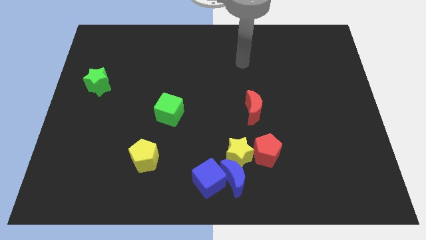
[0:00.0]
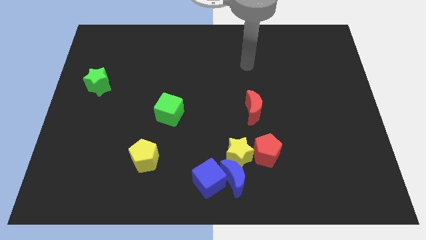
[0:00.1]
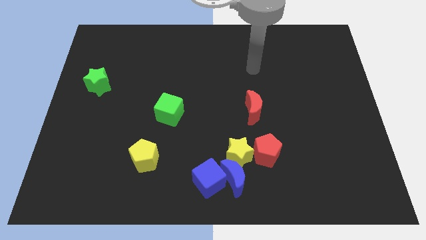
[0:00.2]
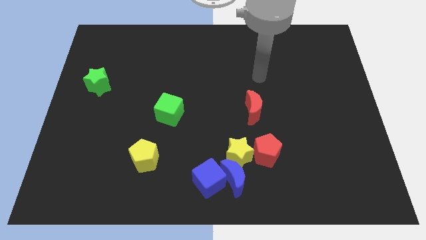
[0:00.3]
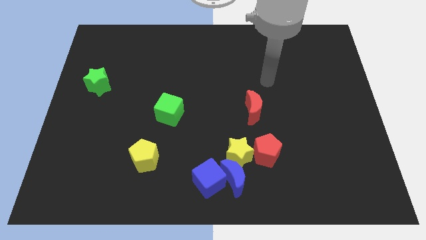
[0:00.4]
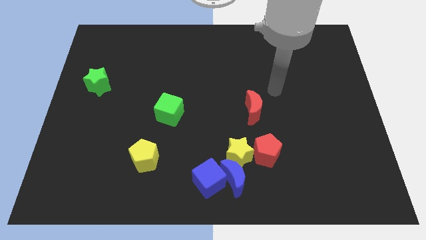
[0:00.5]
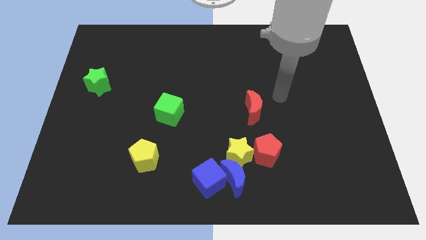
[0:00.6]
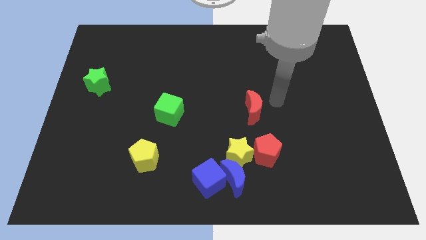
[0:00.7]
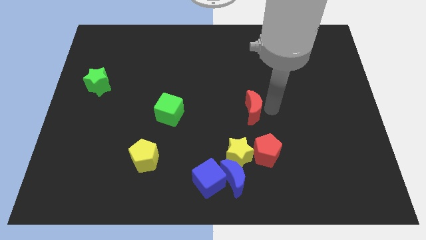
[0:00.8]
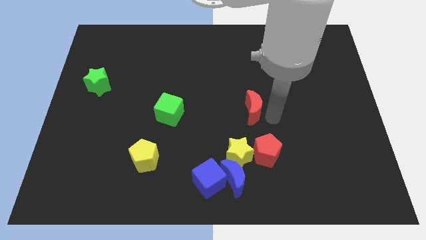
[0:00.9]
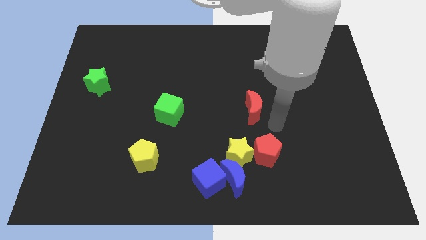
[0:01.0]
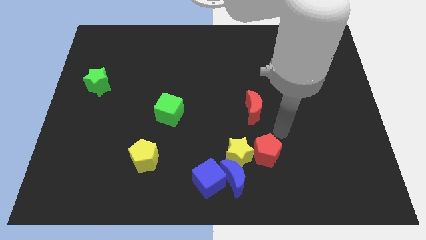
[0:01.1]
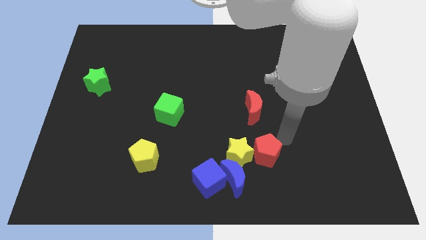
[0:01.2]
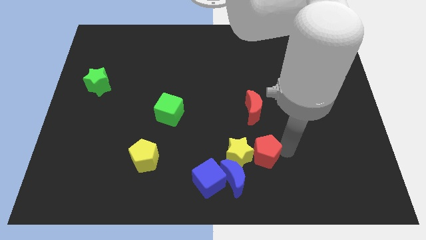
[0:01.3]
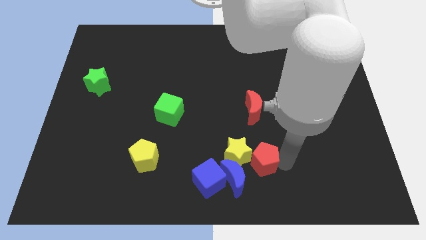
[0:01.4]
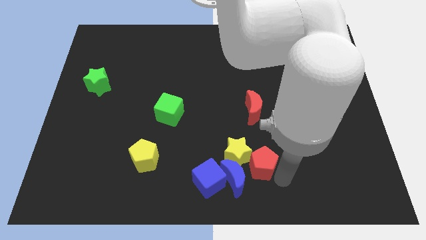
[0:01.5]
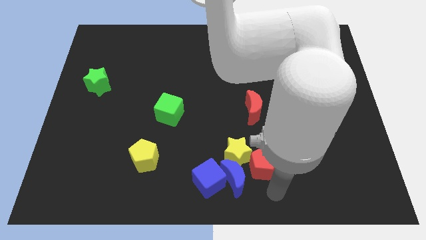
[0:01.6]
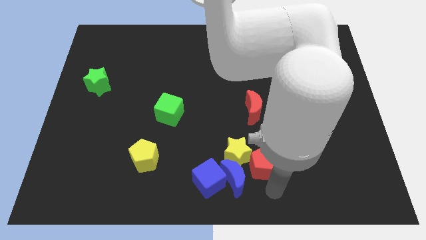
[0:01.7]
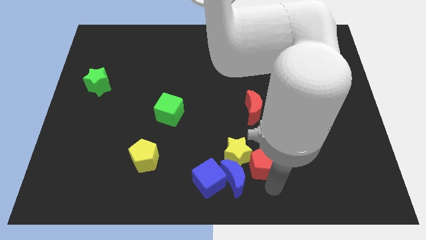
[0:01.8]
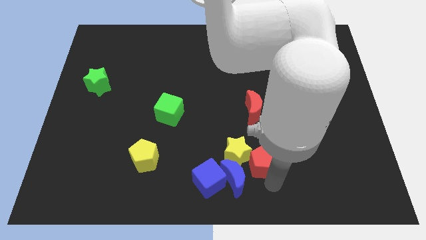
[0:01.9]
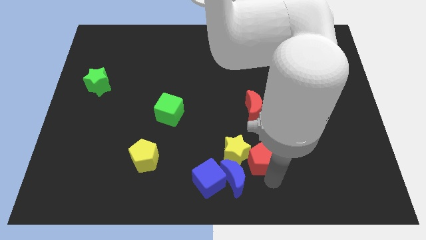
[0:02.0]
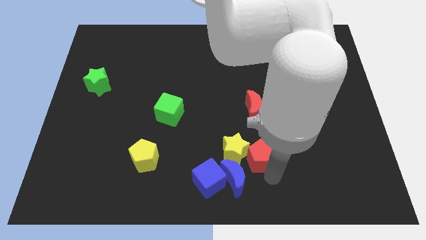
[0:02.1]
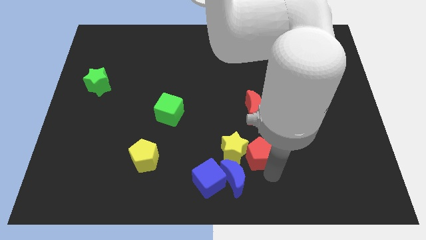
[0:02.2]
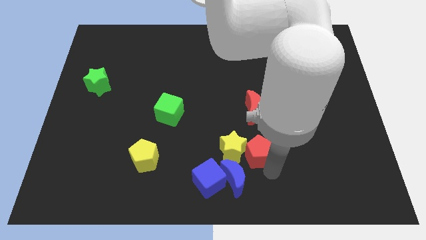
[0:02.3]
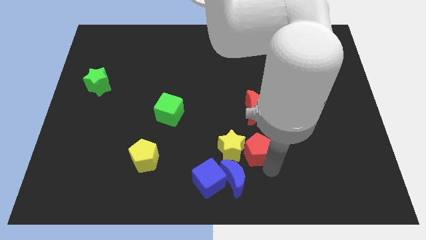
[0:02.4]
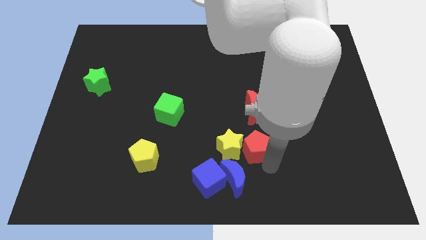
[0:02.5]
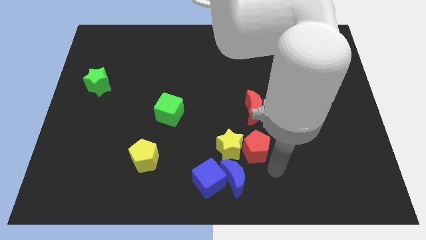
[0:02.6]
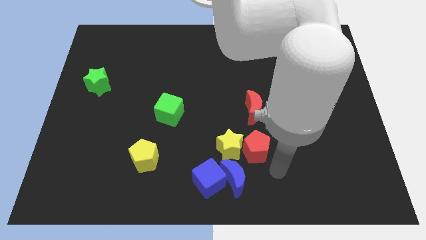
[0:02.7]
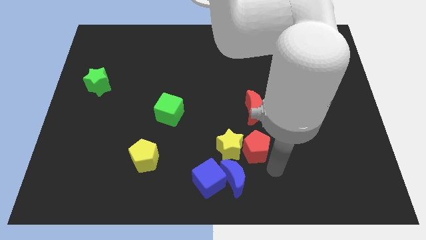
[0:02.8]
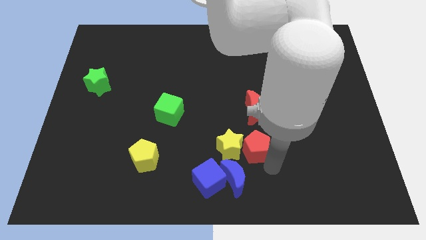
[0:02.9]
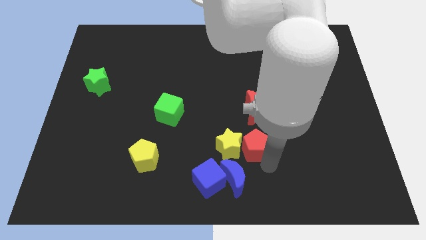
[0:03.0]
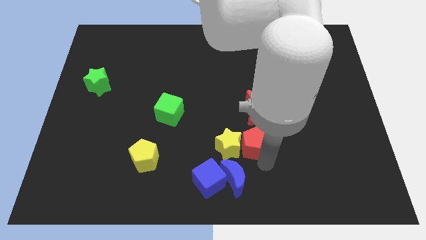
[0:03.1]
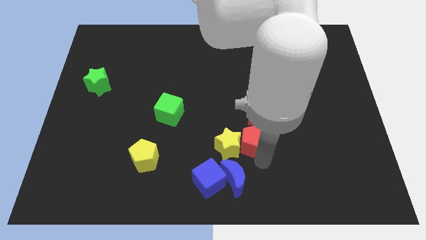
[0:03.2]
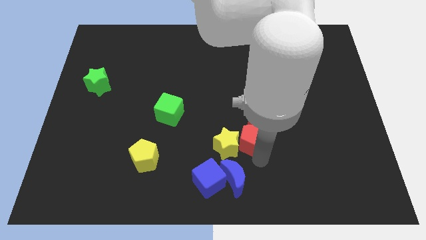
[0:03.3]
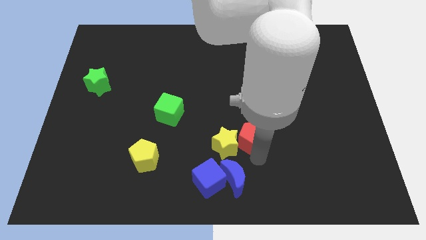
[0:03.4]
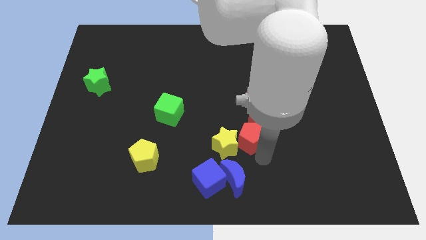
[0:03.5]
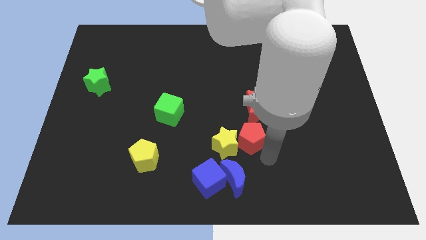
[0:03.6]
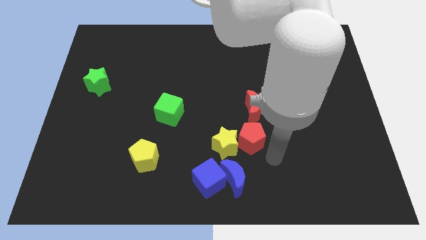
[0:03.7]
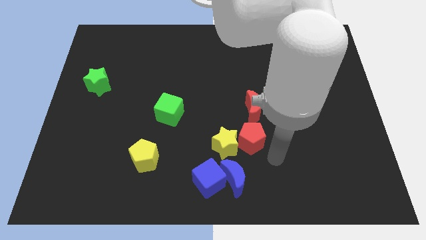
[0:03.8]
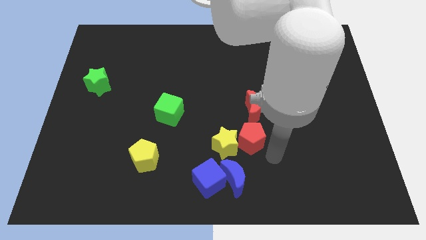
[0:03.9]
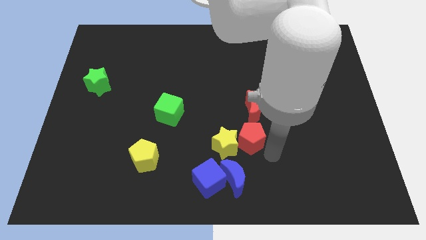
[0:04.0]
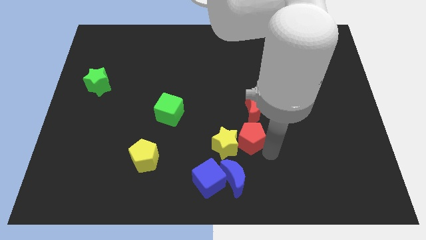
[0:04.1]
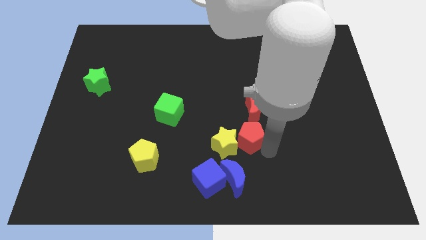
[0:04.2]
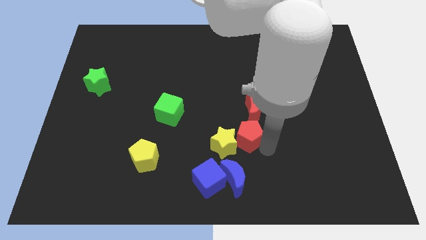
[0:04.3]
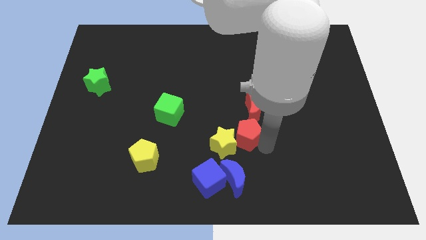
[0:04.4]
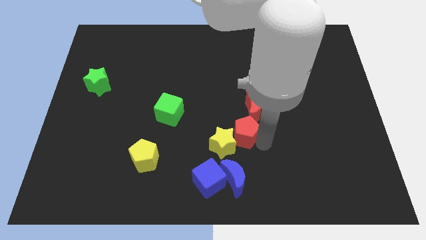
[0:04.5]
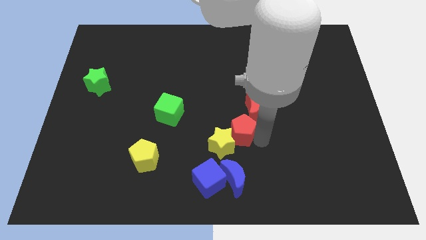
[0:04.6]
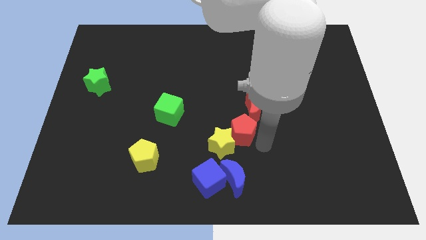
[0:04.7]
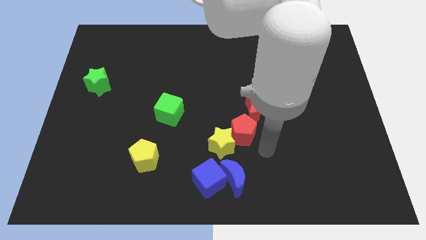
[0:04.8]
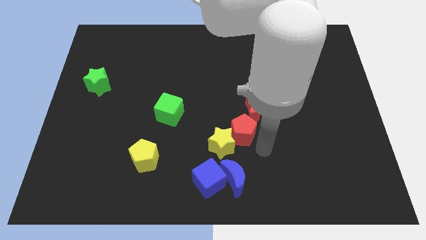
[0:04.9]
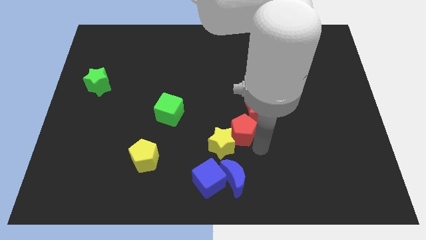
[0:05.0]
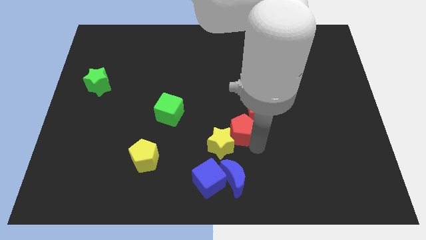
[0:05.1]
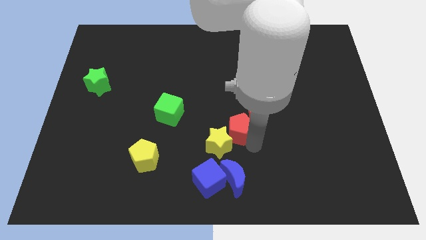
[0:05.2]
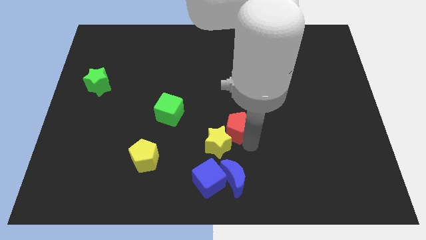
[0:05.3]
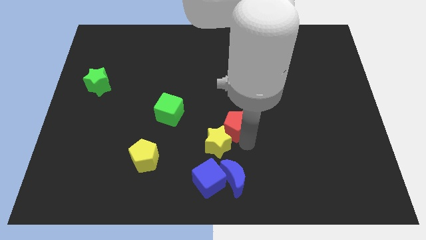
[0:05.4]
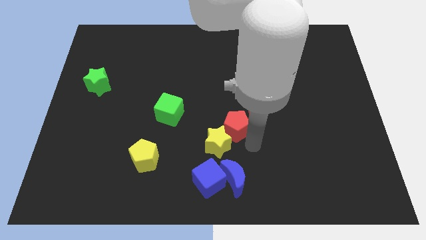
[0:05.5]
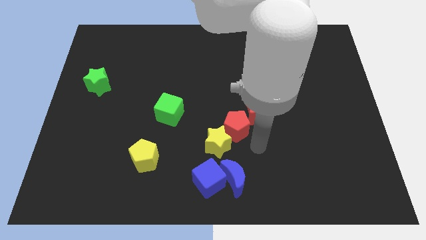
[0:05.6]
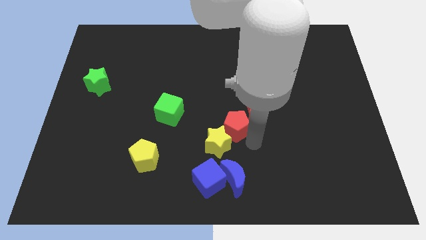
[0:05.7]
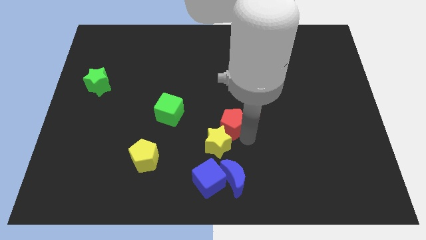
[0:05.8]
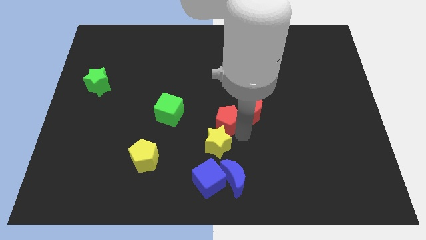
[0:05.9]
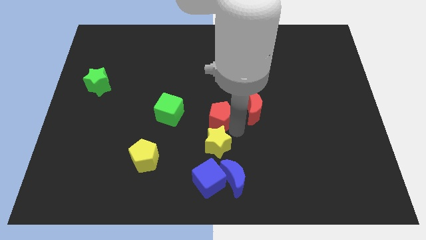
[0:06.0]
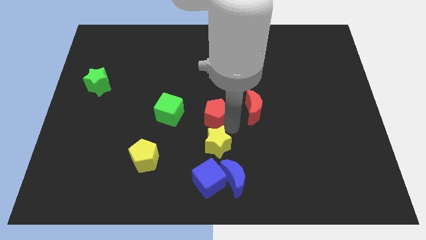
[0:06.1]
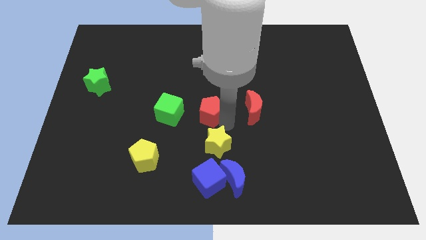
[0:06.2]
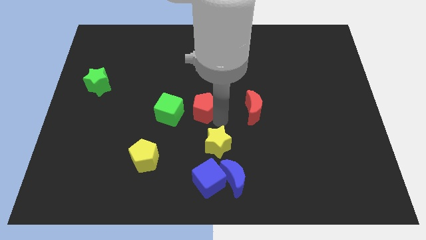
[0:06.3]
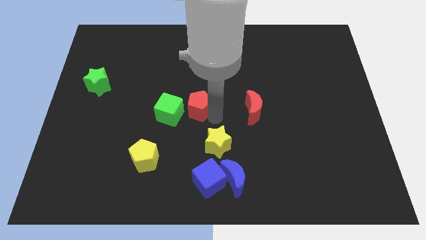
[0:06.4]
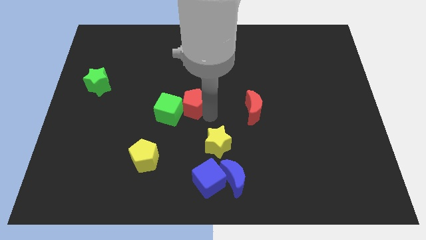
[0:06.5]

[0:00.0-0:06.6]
move the red pentagon up and to the left diagonally

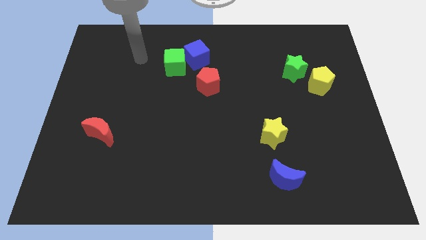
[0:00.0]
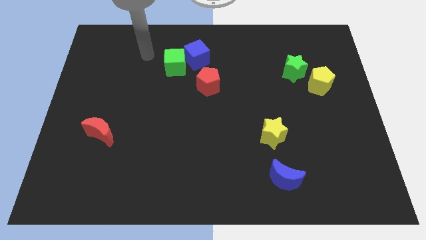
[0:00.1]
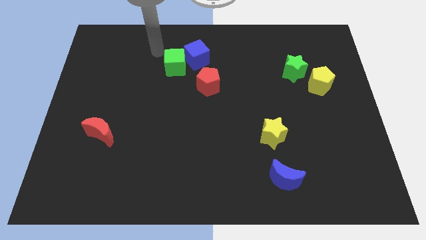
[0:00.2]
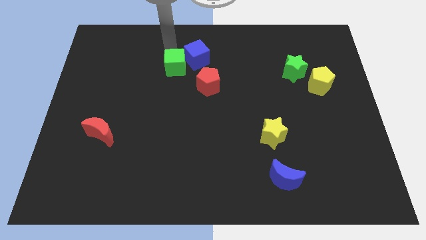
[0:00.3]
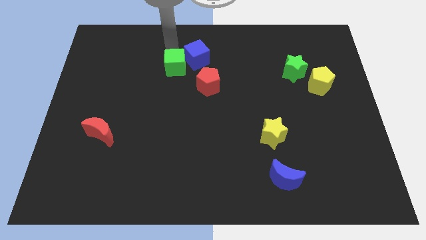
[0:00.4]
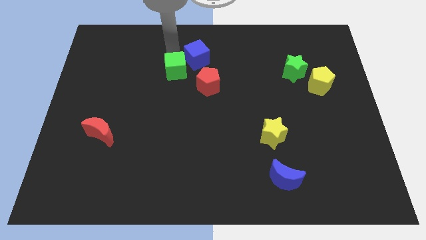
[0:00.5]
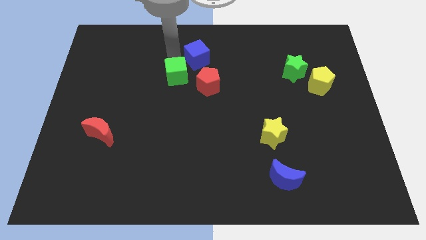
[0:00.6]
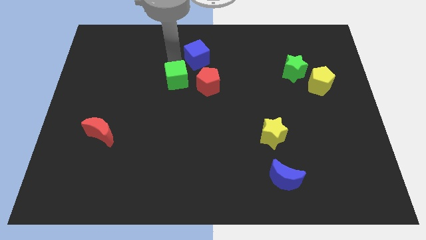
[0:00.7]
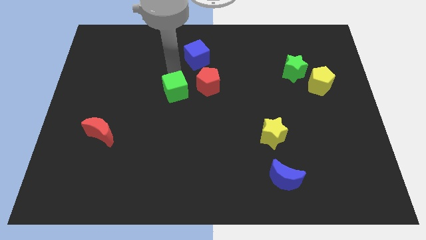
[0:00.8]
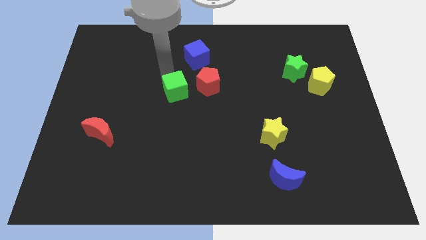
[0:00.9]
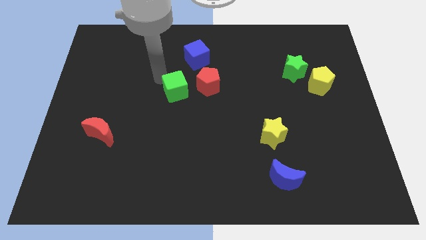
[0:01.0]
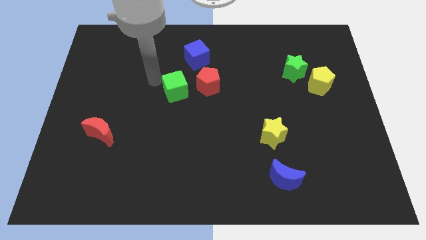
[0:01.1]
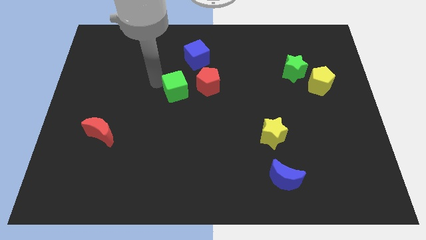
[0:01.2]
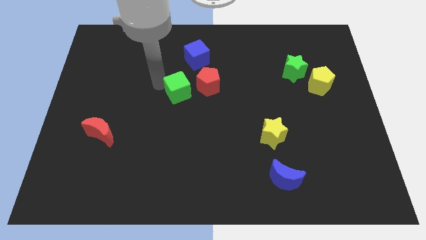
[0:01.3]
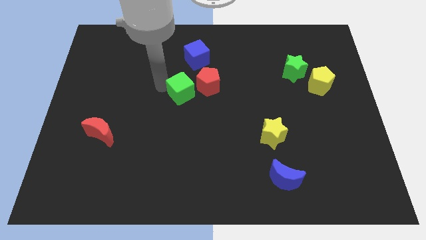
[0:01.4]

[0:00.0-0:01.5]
push the green cube slightly down and then right

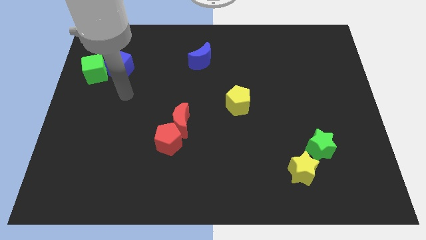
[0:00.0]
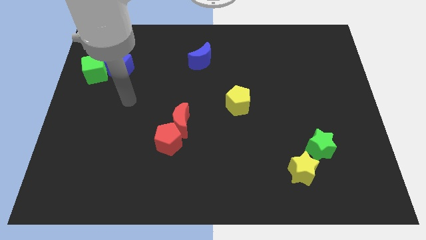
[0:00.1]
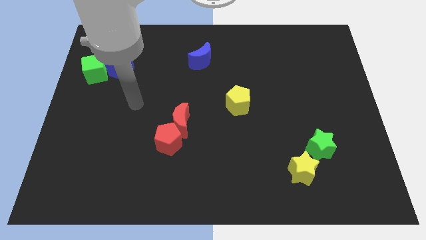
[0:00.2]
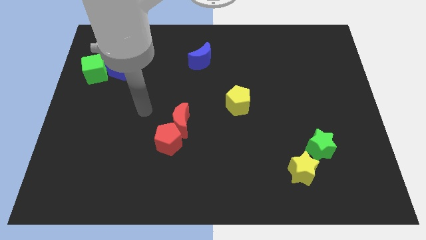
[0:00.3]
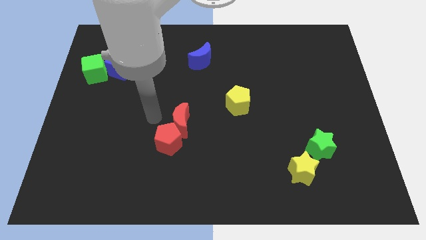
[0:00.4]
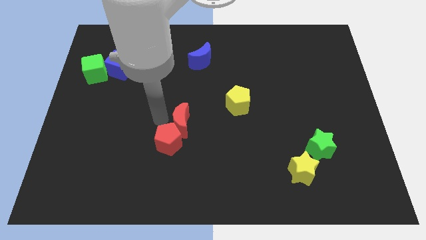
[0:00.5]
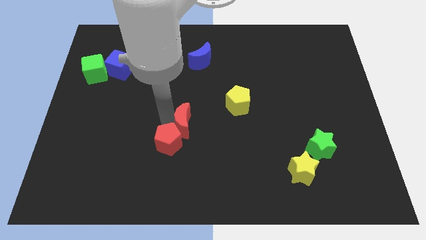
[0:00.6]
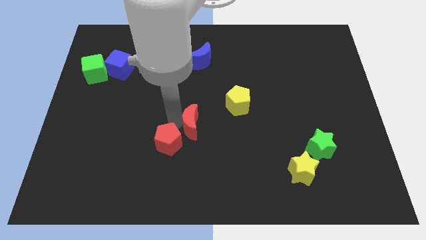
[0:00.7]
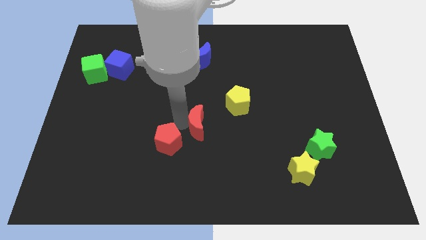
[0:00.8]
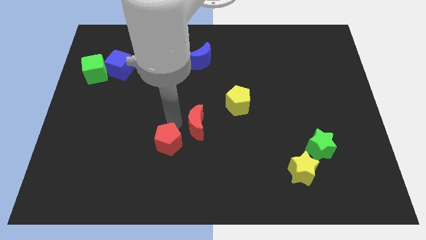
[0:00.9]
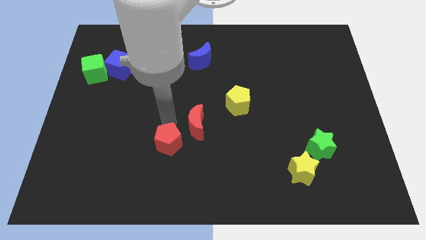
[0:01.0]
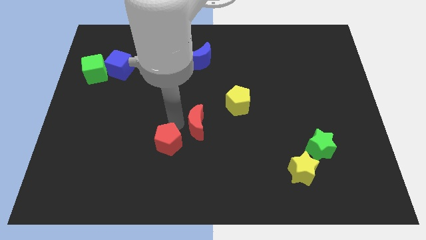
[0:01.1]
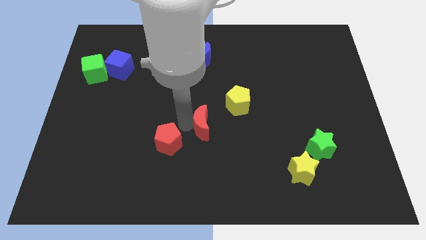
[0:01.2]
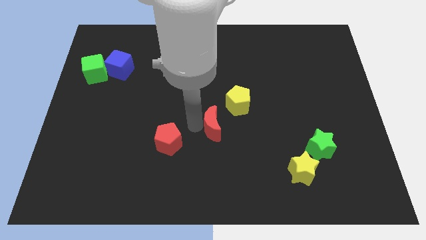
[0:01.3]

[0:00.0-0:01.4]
slightly push the red moon to the right
